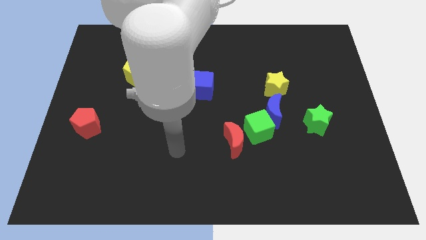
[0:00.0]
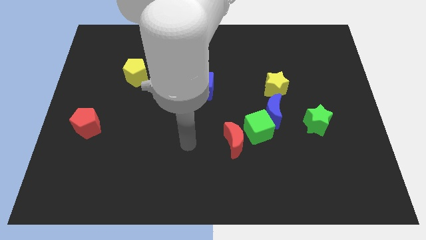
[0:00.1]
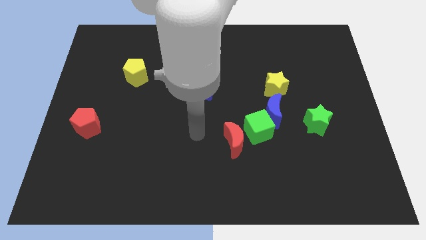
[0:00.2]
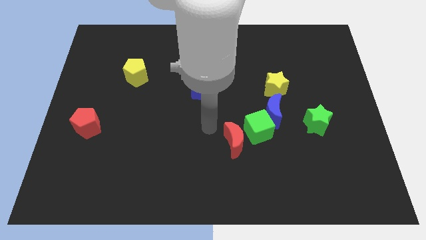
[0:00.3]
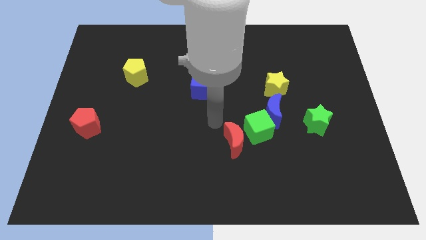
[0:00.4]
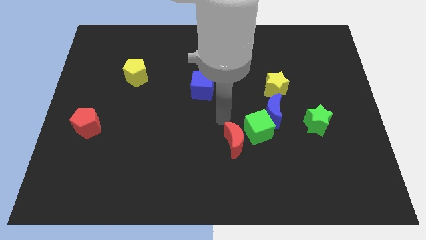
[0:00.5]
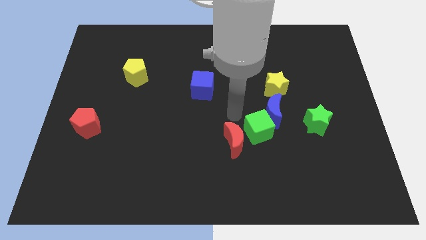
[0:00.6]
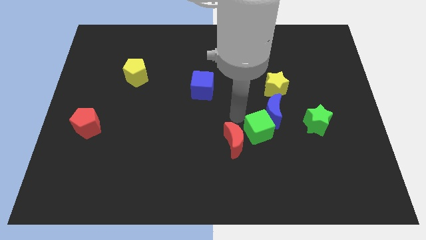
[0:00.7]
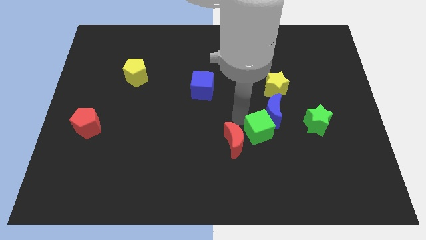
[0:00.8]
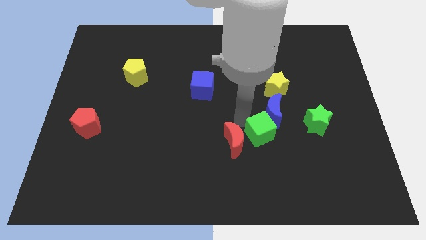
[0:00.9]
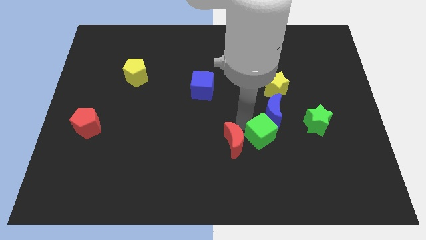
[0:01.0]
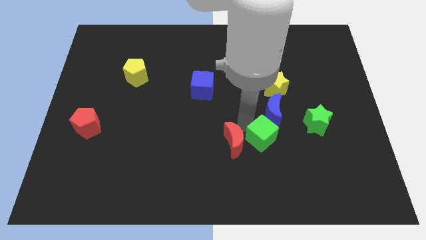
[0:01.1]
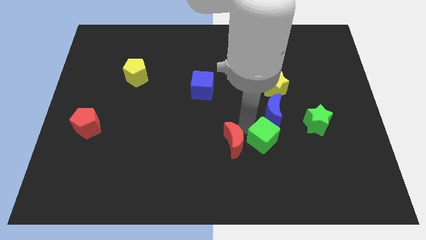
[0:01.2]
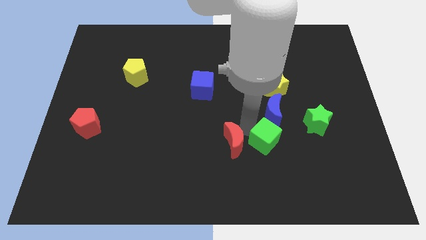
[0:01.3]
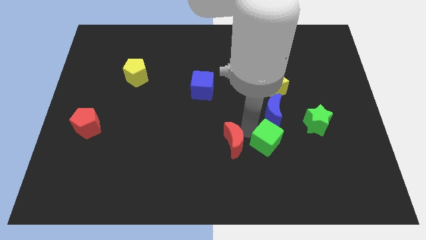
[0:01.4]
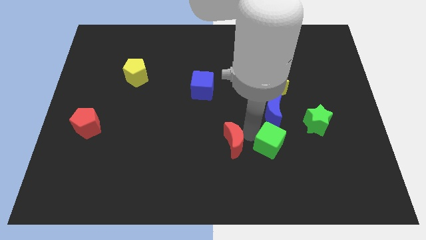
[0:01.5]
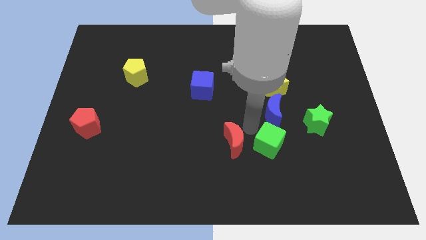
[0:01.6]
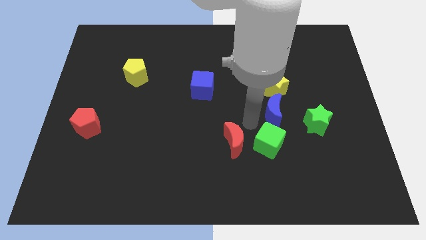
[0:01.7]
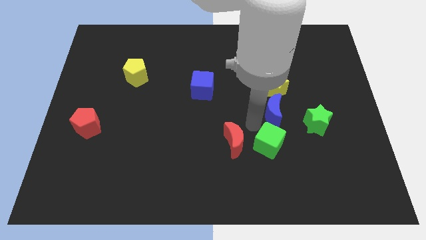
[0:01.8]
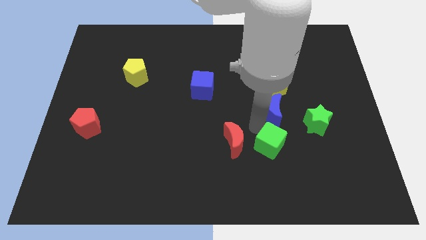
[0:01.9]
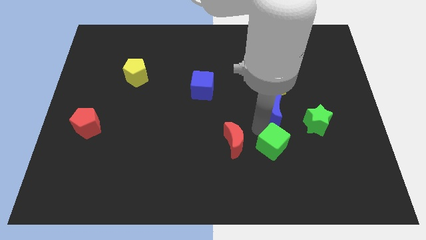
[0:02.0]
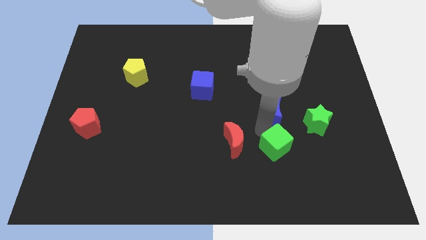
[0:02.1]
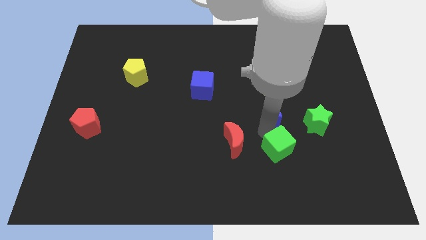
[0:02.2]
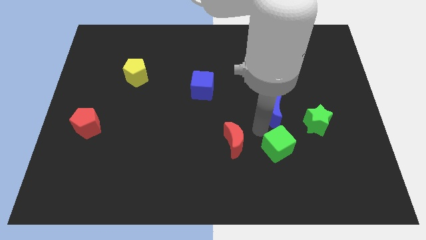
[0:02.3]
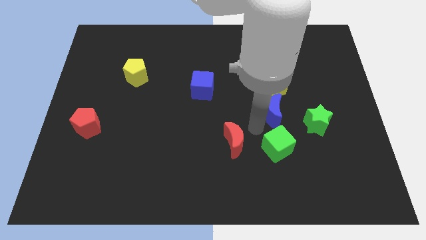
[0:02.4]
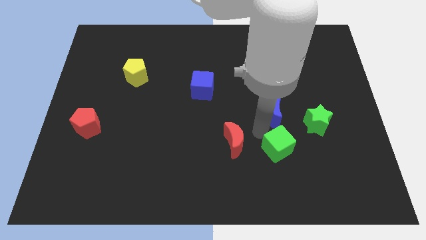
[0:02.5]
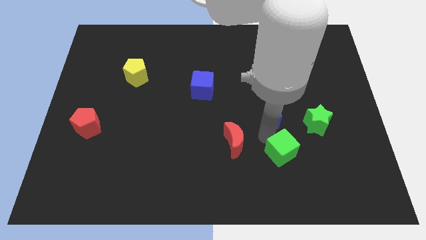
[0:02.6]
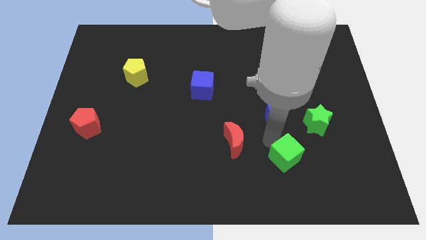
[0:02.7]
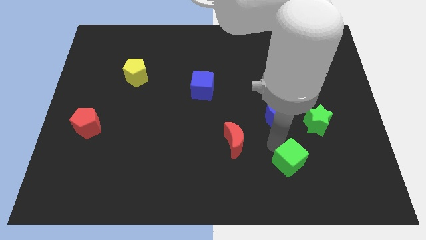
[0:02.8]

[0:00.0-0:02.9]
separate the green cube from the blue moon and red moon

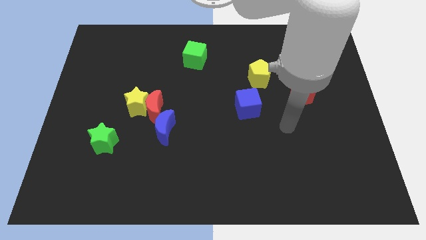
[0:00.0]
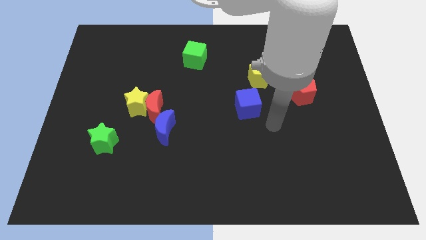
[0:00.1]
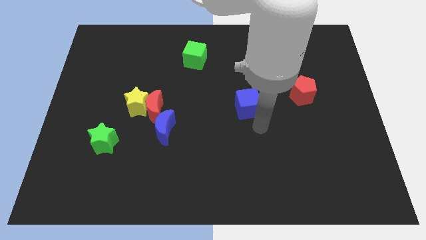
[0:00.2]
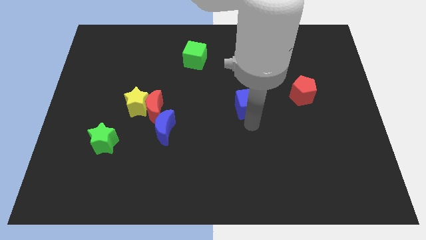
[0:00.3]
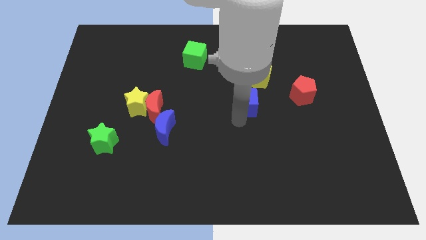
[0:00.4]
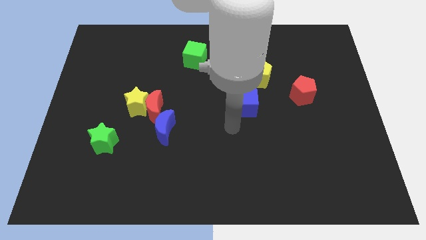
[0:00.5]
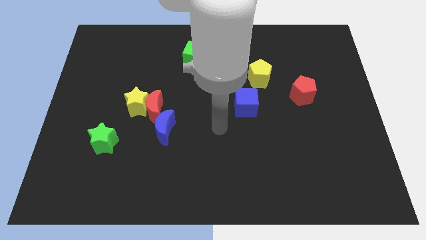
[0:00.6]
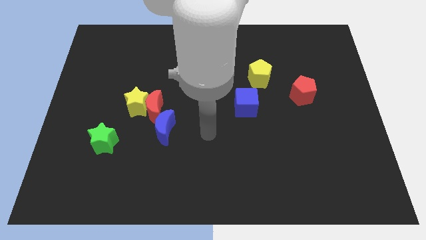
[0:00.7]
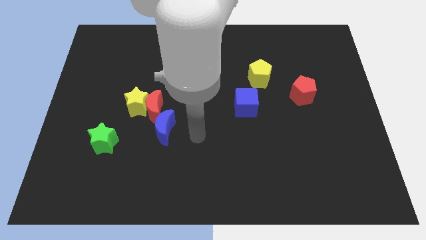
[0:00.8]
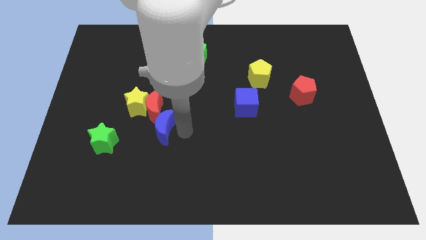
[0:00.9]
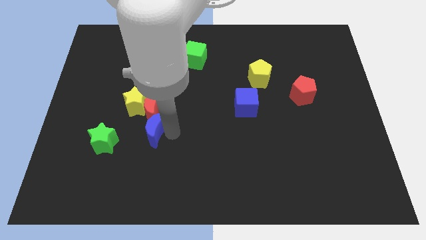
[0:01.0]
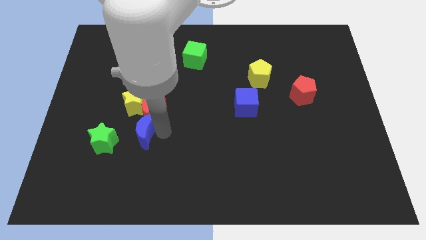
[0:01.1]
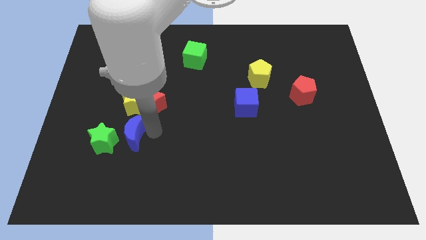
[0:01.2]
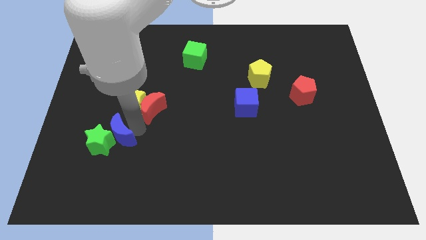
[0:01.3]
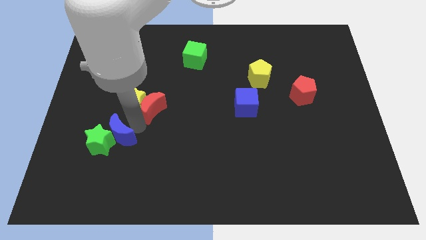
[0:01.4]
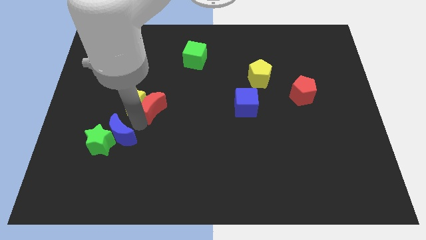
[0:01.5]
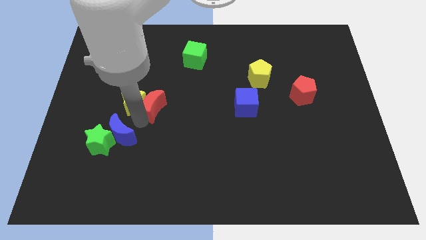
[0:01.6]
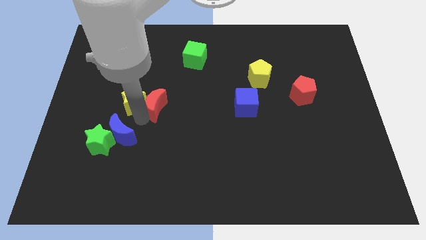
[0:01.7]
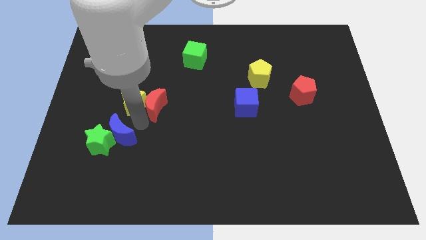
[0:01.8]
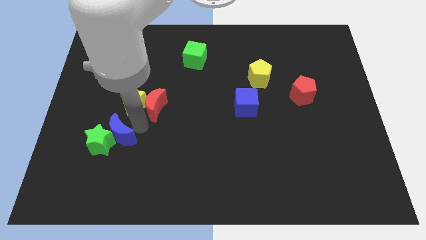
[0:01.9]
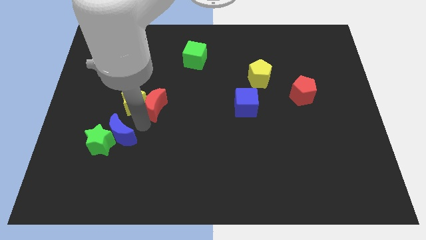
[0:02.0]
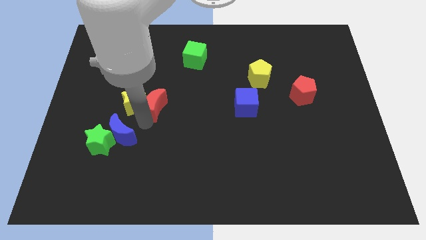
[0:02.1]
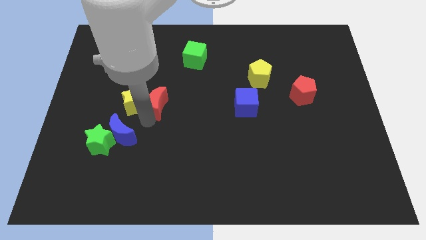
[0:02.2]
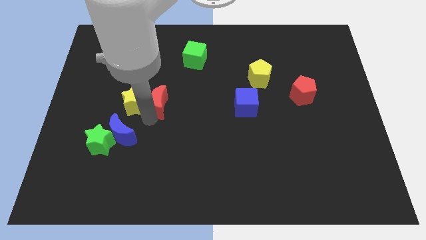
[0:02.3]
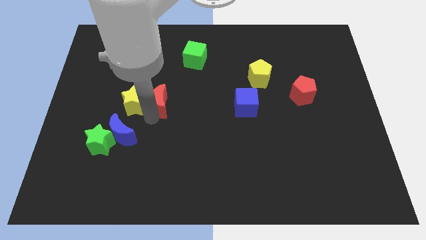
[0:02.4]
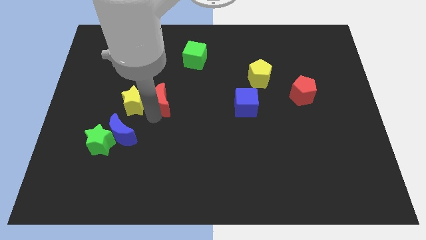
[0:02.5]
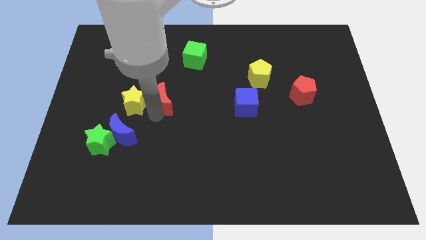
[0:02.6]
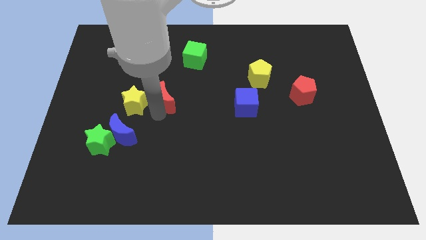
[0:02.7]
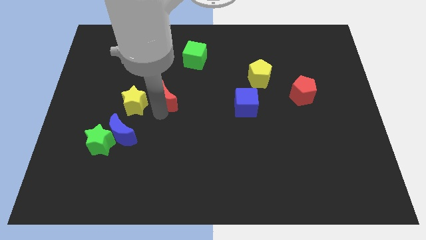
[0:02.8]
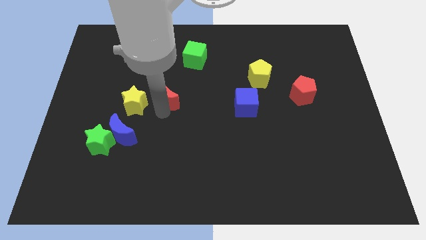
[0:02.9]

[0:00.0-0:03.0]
separate the red moon from the yellow star and blue moon

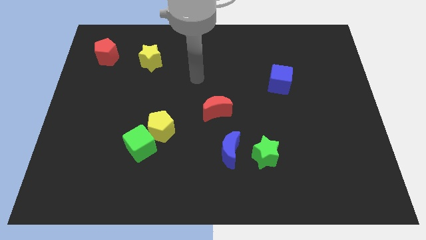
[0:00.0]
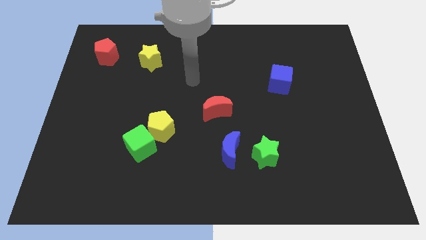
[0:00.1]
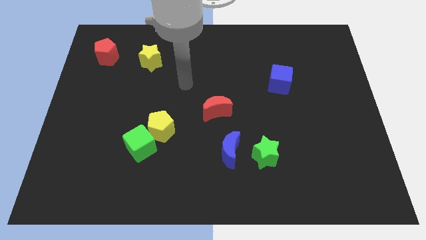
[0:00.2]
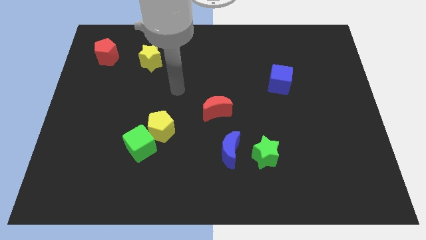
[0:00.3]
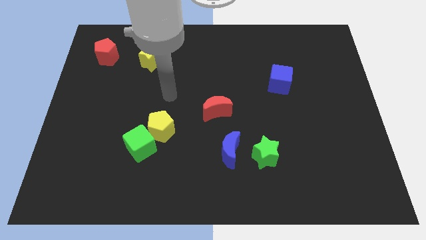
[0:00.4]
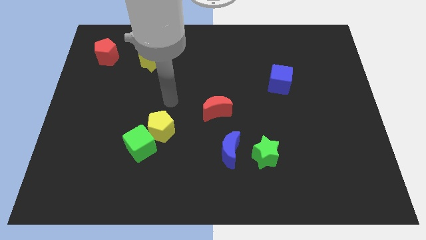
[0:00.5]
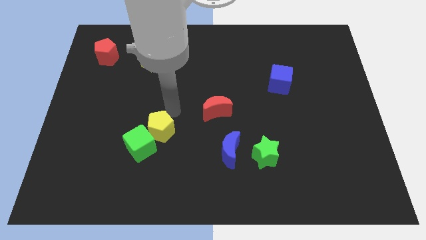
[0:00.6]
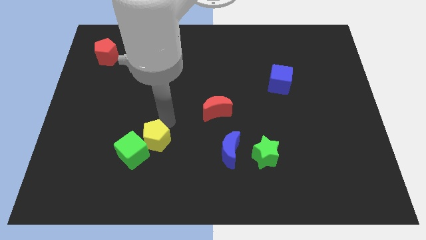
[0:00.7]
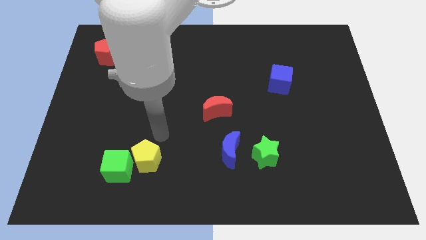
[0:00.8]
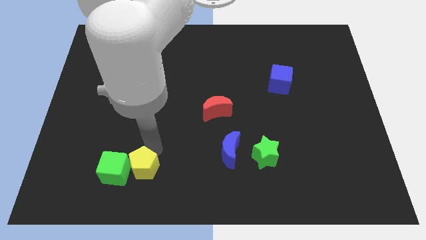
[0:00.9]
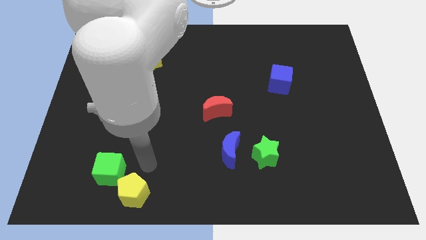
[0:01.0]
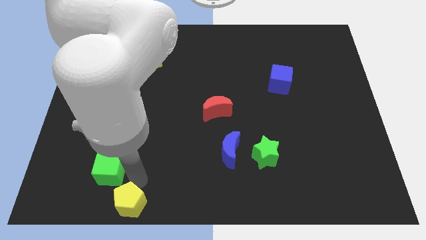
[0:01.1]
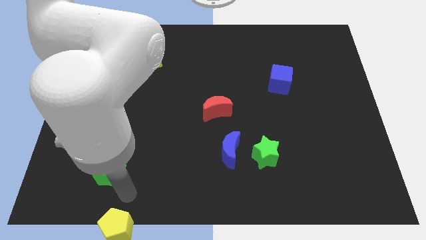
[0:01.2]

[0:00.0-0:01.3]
move the green cube away from the yellow pentagon

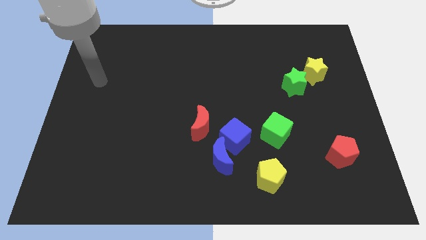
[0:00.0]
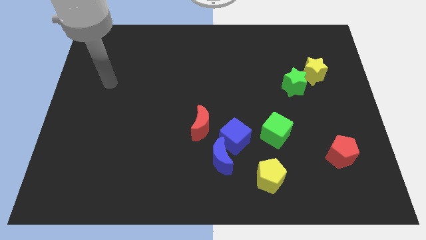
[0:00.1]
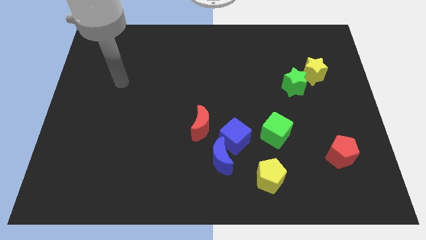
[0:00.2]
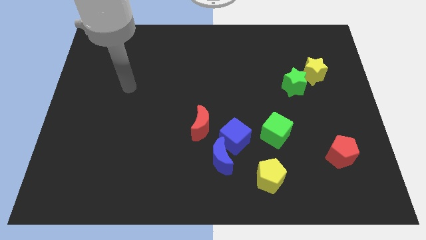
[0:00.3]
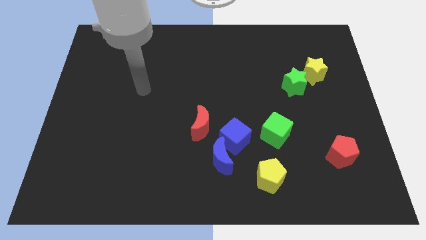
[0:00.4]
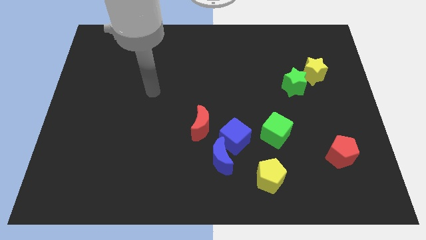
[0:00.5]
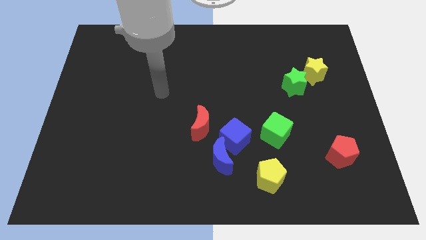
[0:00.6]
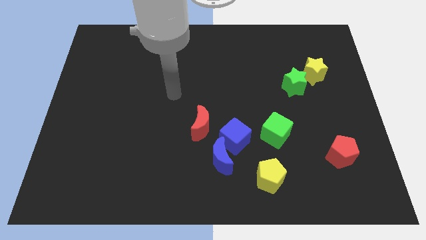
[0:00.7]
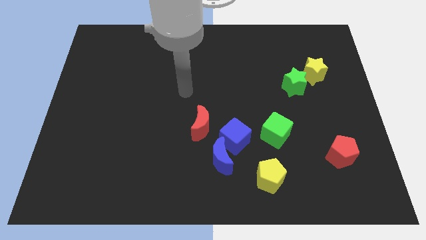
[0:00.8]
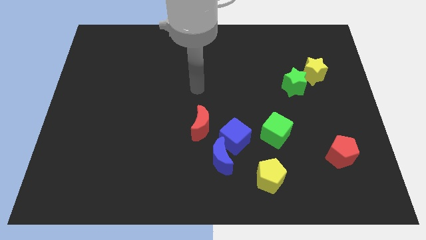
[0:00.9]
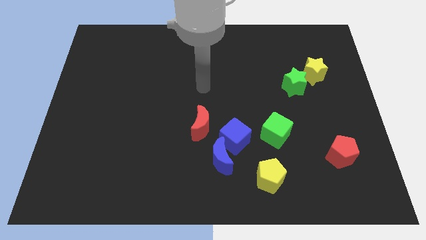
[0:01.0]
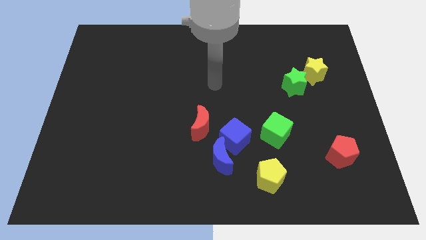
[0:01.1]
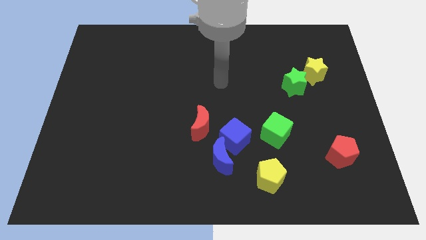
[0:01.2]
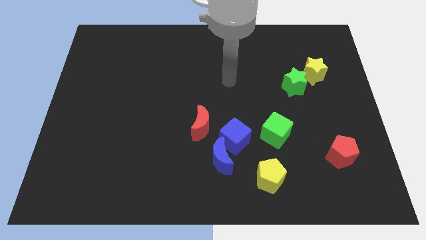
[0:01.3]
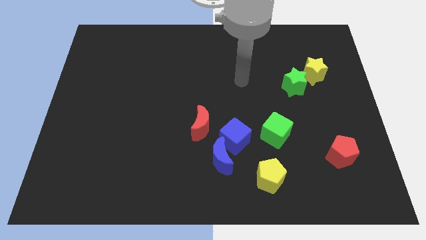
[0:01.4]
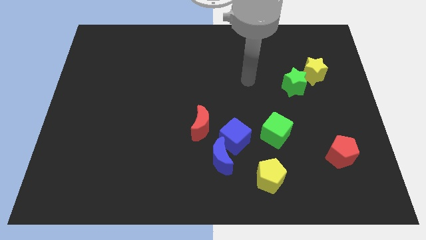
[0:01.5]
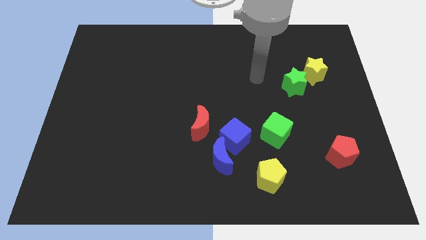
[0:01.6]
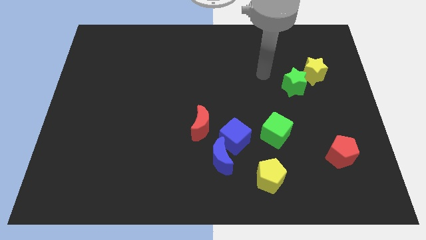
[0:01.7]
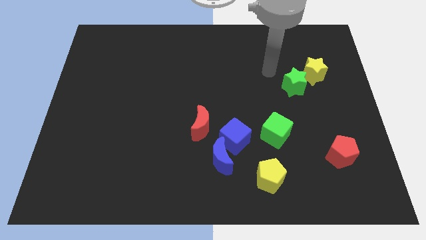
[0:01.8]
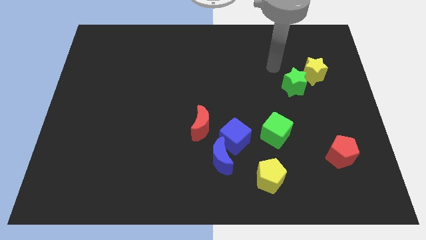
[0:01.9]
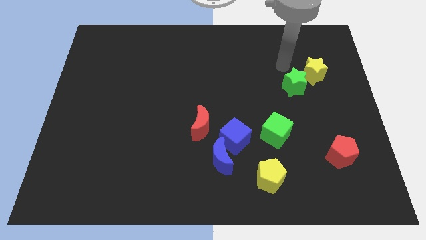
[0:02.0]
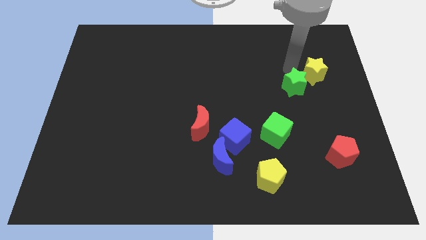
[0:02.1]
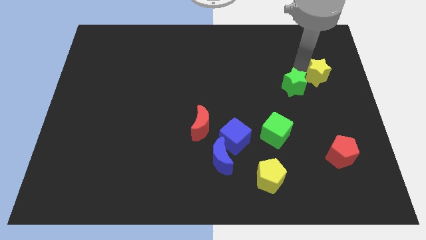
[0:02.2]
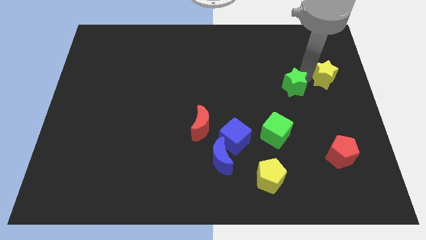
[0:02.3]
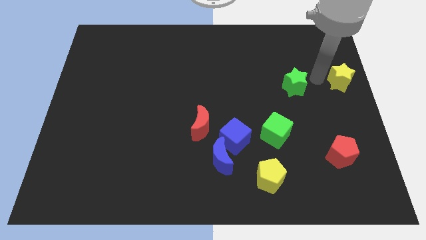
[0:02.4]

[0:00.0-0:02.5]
move the green star away from the yellow star
